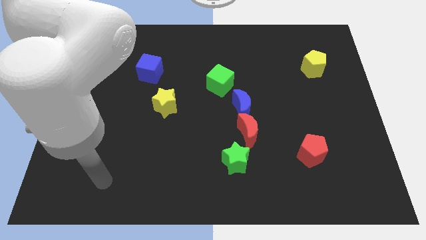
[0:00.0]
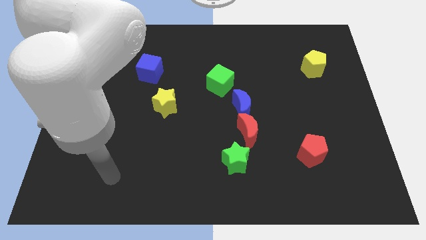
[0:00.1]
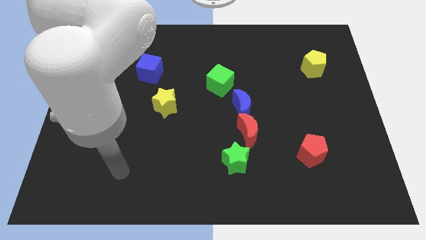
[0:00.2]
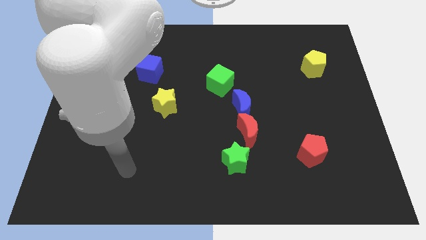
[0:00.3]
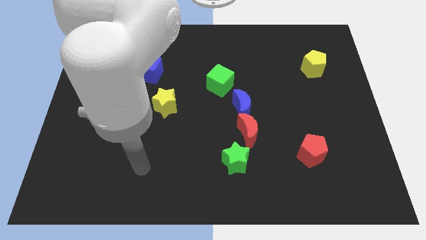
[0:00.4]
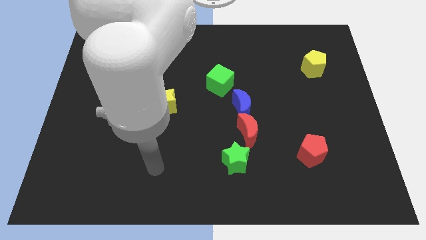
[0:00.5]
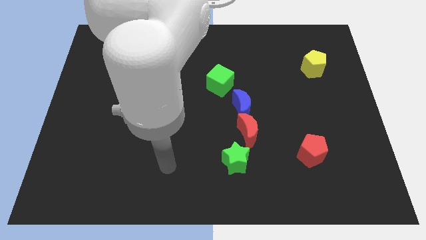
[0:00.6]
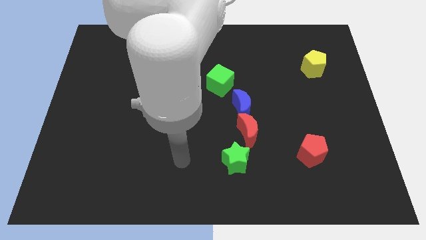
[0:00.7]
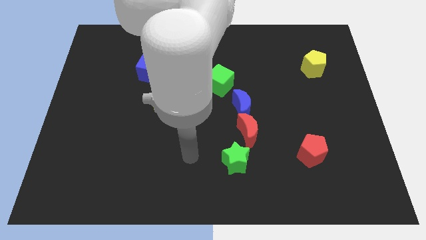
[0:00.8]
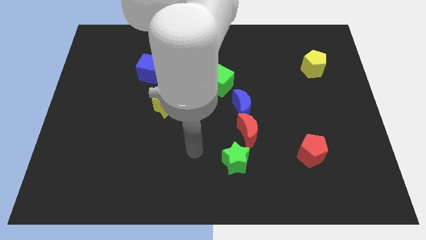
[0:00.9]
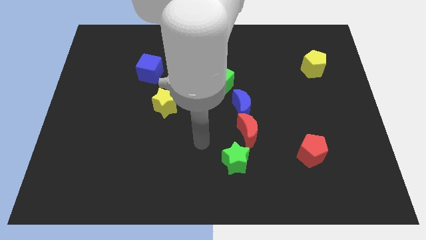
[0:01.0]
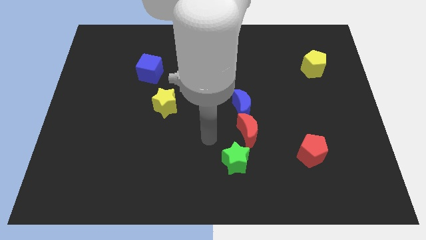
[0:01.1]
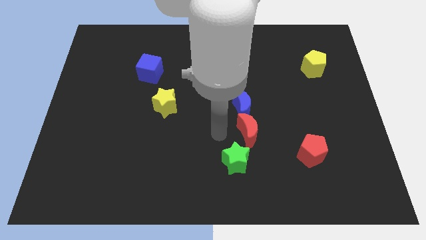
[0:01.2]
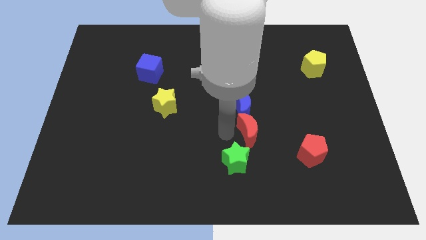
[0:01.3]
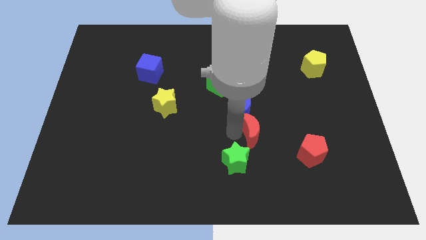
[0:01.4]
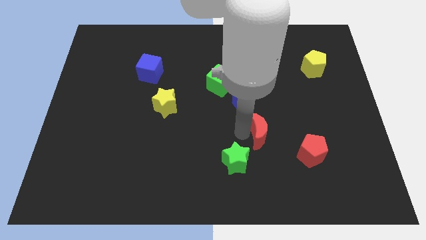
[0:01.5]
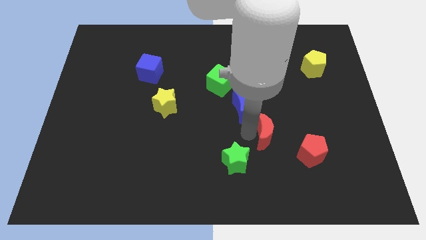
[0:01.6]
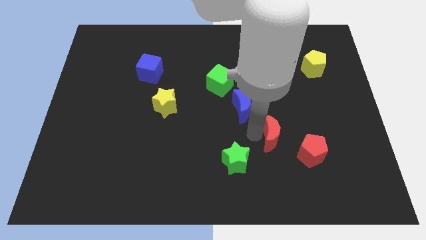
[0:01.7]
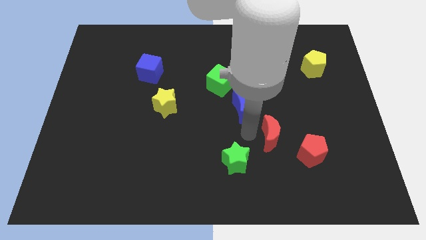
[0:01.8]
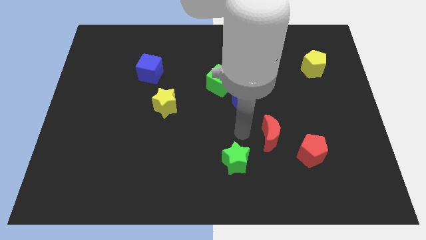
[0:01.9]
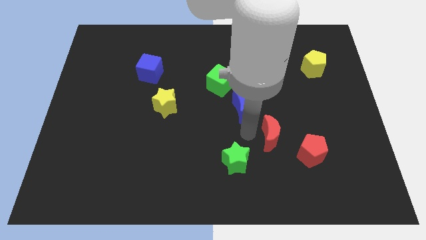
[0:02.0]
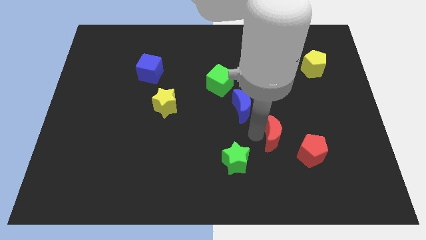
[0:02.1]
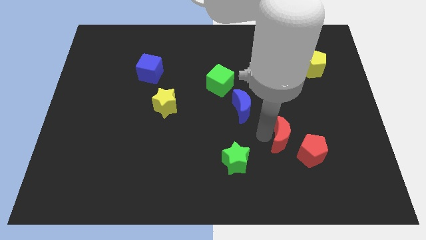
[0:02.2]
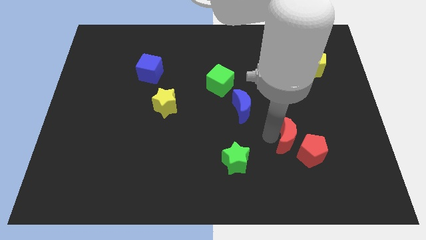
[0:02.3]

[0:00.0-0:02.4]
pull the red moon apart from the blue moon and green star

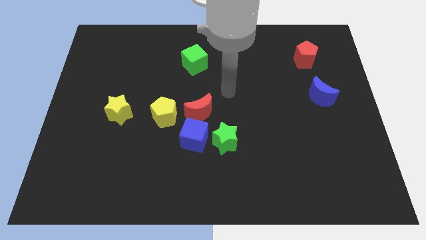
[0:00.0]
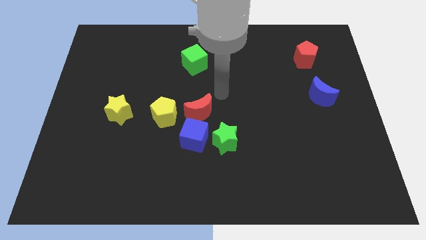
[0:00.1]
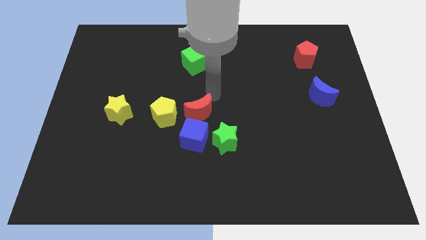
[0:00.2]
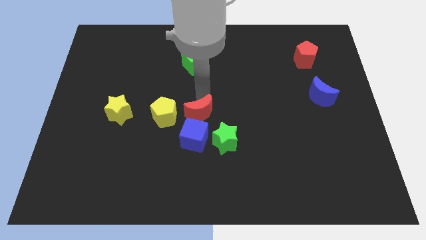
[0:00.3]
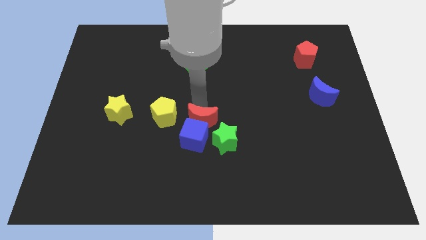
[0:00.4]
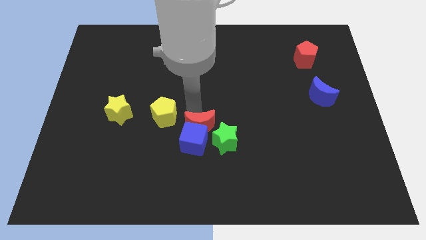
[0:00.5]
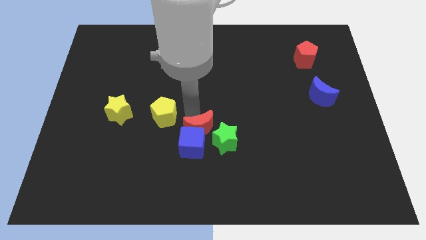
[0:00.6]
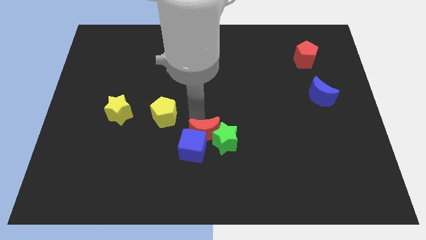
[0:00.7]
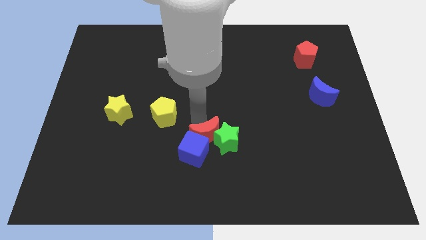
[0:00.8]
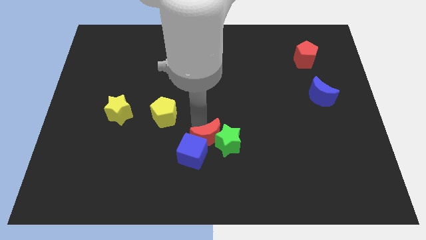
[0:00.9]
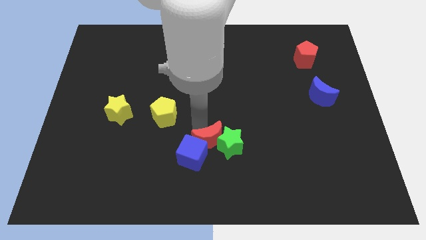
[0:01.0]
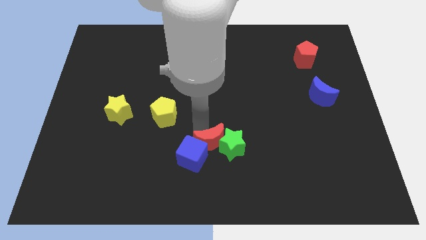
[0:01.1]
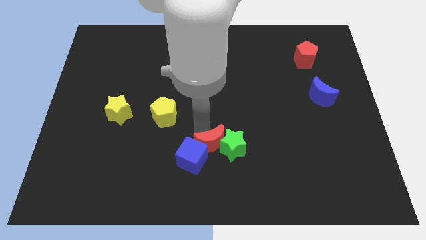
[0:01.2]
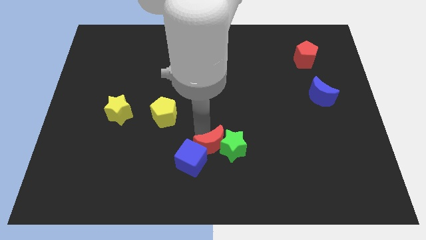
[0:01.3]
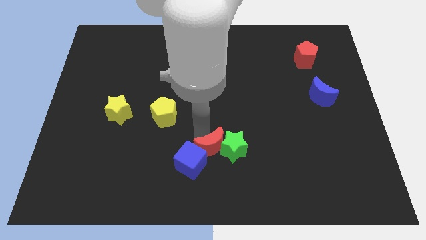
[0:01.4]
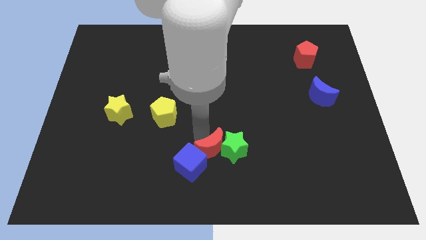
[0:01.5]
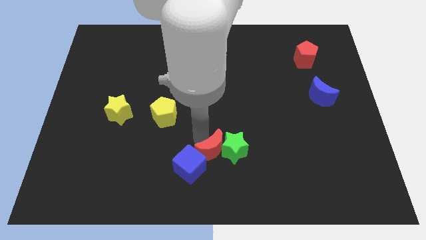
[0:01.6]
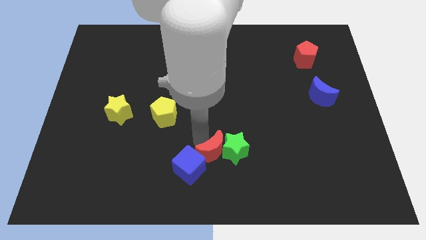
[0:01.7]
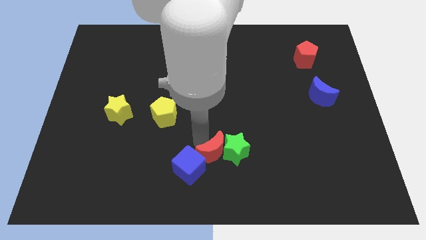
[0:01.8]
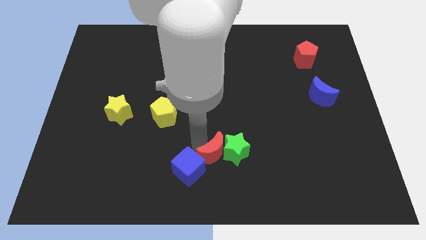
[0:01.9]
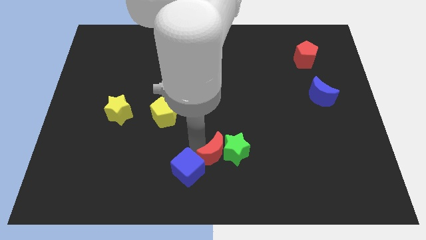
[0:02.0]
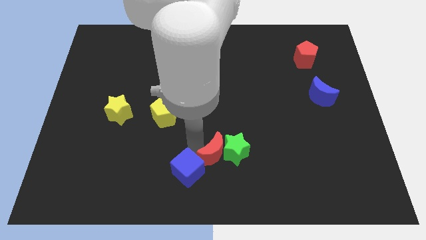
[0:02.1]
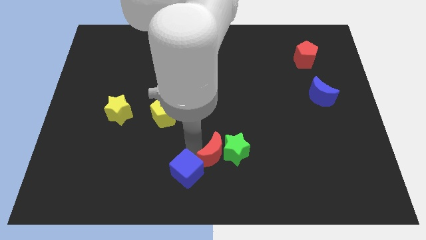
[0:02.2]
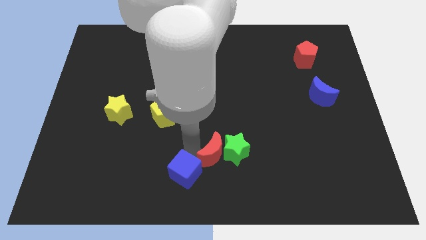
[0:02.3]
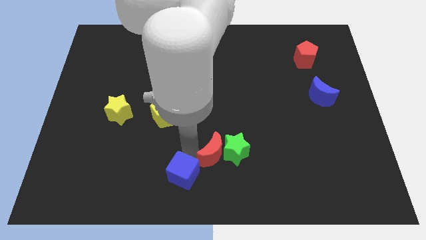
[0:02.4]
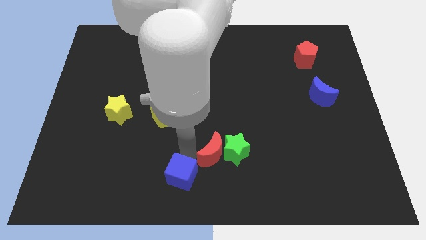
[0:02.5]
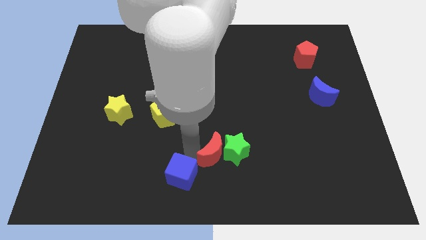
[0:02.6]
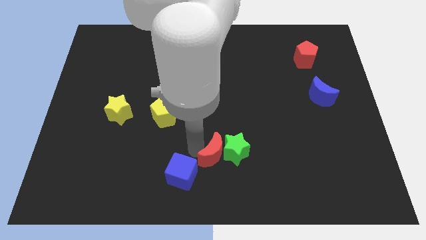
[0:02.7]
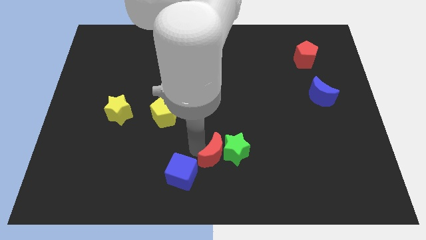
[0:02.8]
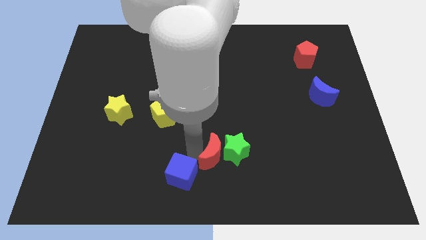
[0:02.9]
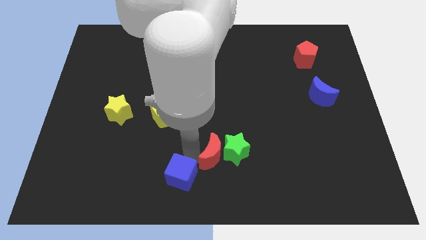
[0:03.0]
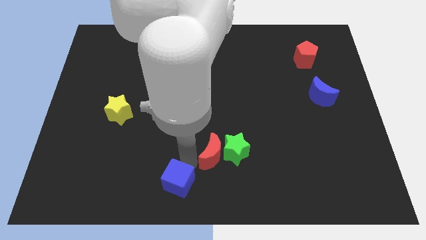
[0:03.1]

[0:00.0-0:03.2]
separate the blue cube from the group

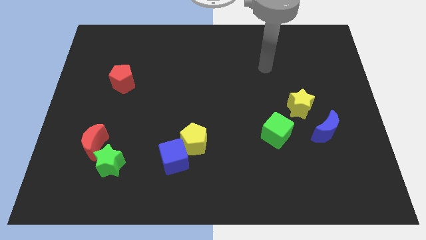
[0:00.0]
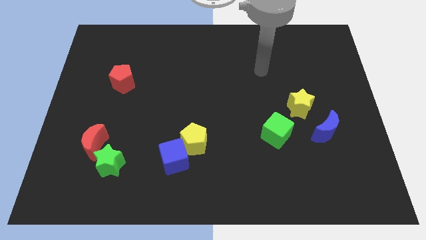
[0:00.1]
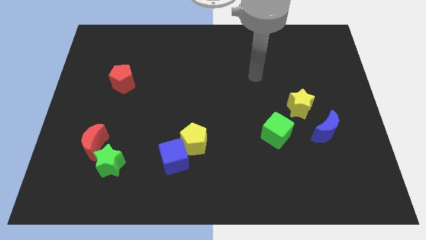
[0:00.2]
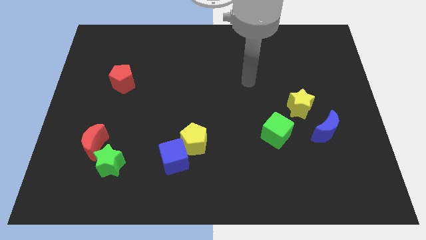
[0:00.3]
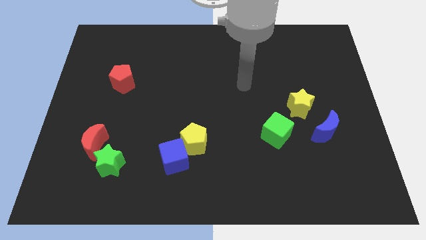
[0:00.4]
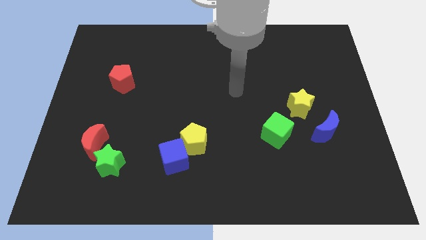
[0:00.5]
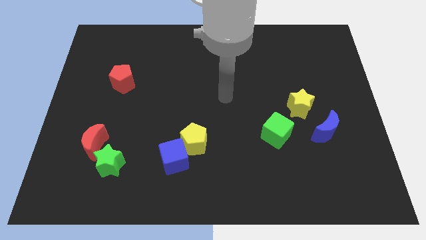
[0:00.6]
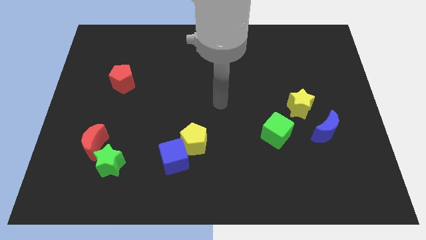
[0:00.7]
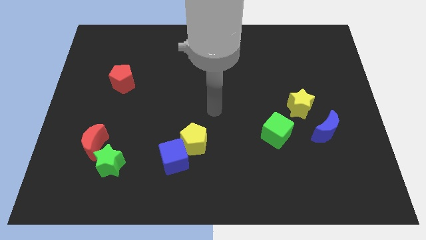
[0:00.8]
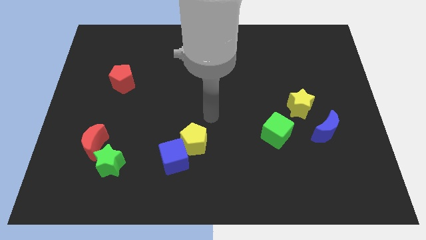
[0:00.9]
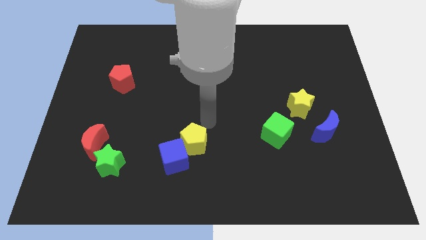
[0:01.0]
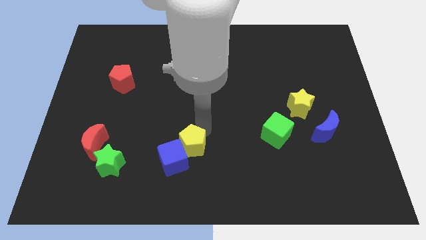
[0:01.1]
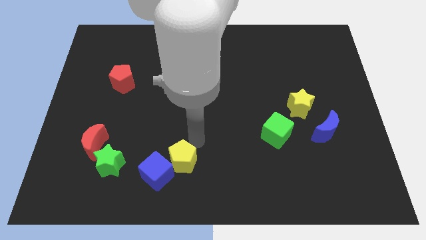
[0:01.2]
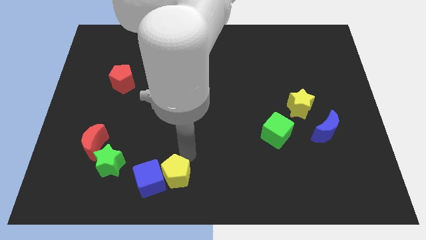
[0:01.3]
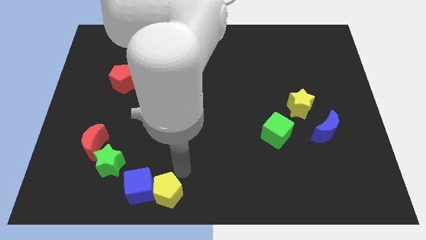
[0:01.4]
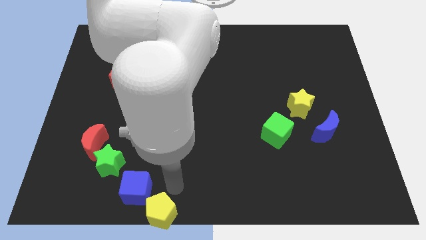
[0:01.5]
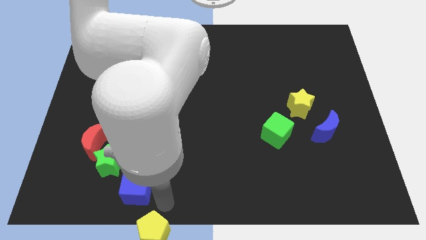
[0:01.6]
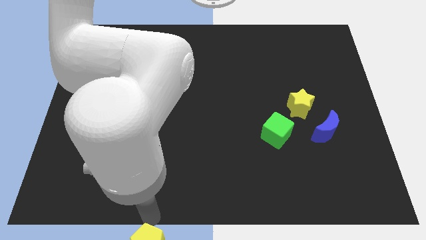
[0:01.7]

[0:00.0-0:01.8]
move the blue cube away from the yellow pentagon

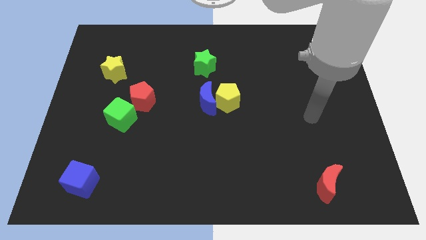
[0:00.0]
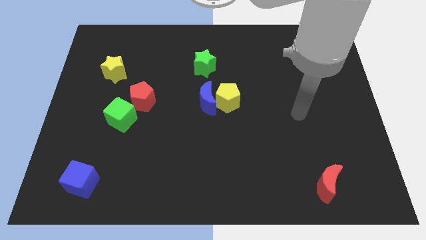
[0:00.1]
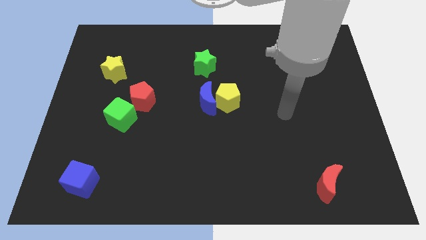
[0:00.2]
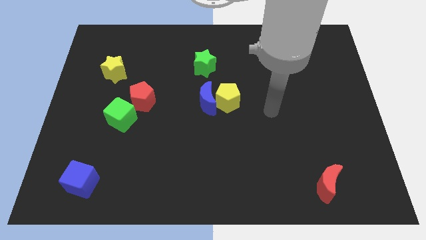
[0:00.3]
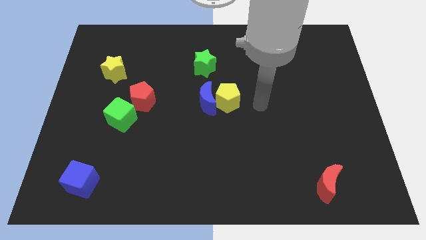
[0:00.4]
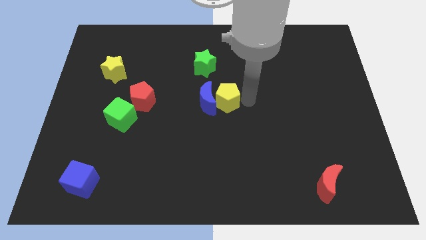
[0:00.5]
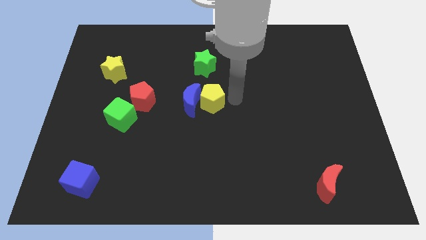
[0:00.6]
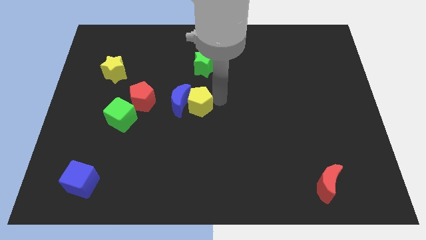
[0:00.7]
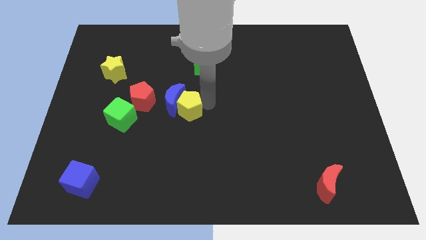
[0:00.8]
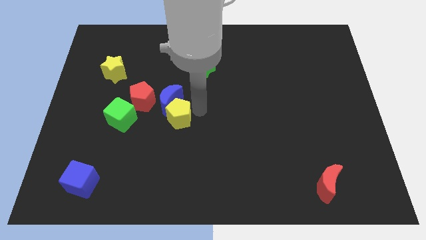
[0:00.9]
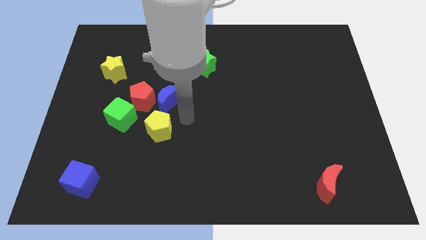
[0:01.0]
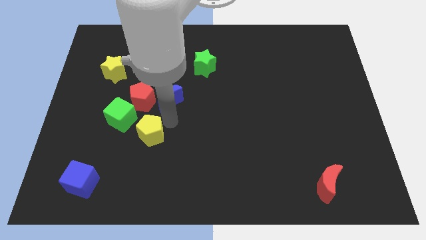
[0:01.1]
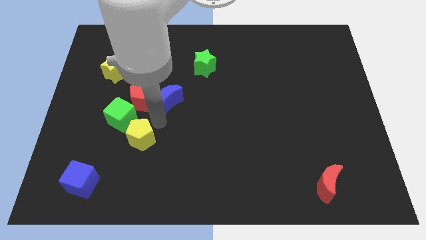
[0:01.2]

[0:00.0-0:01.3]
pull the blue moon apart from the yellow pentagon

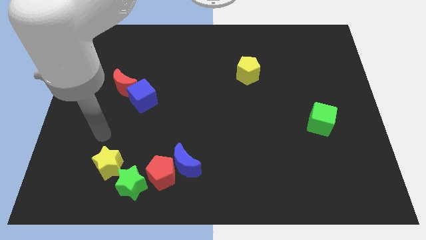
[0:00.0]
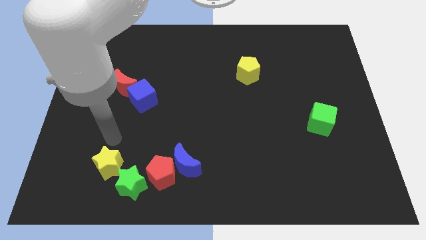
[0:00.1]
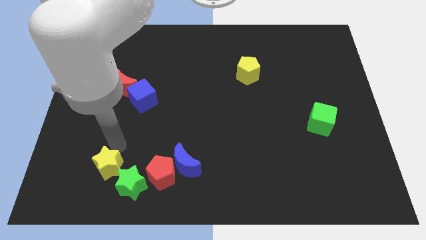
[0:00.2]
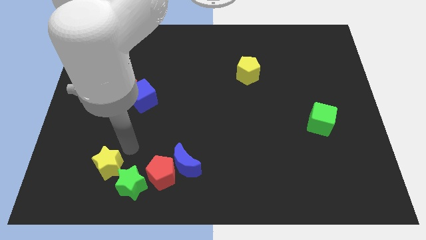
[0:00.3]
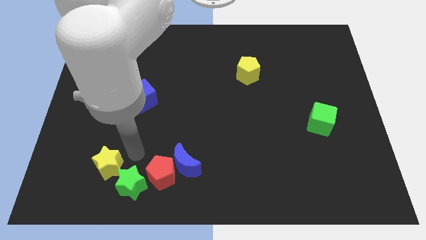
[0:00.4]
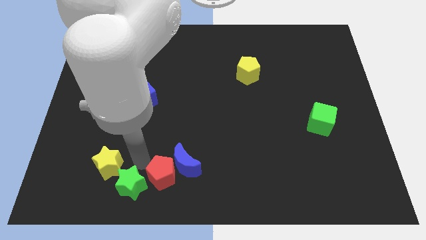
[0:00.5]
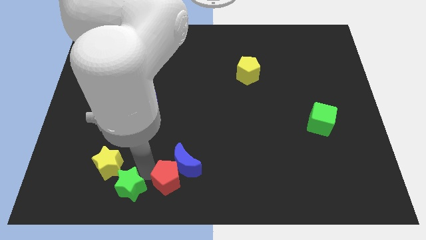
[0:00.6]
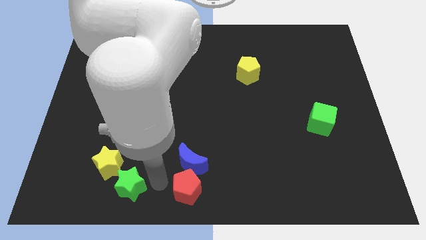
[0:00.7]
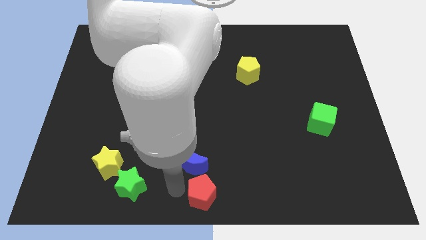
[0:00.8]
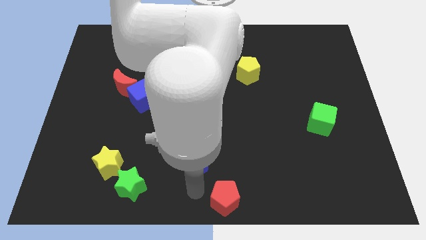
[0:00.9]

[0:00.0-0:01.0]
move the blue moon away from the red pentagon
